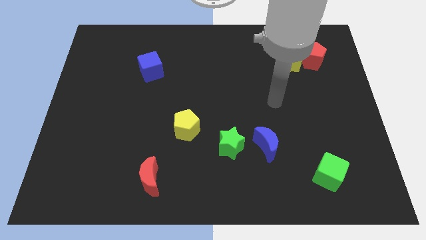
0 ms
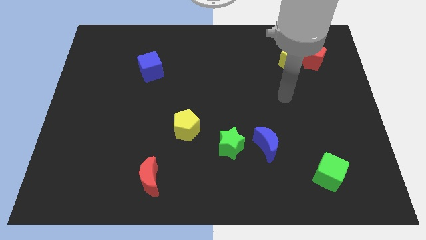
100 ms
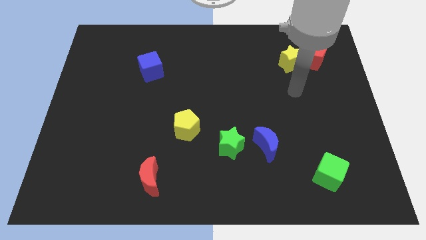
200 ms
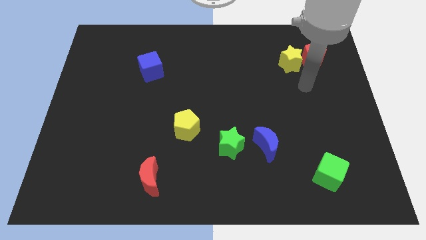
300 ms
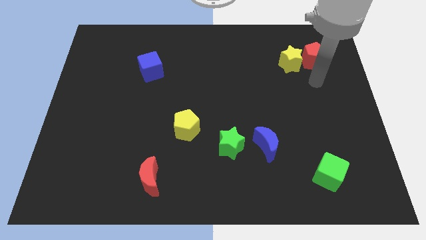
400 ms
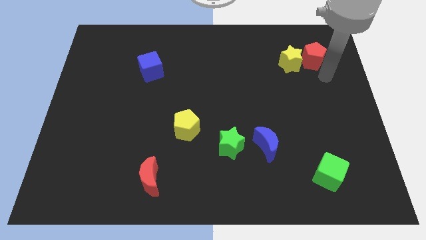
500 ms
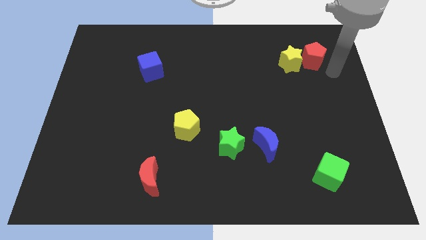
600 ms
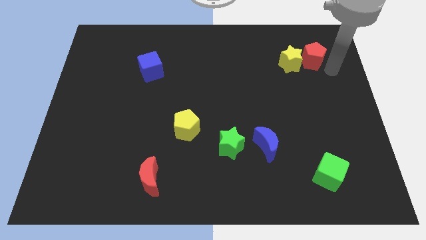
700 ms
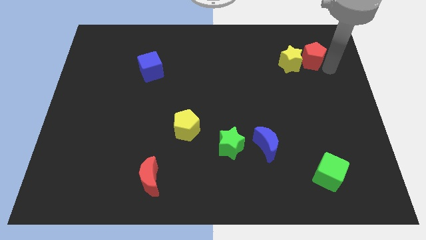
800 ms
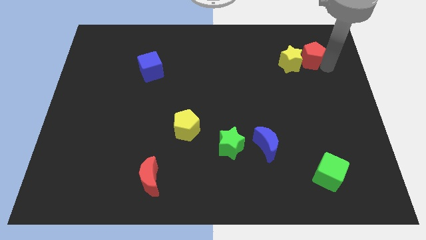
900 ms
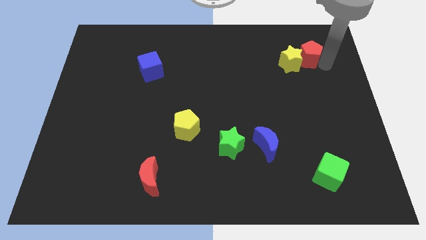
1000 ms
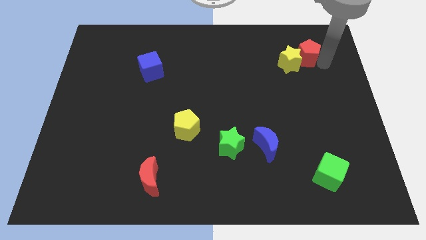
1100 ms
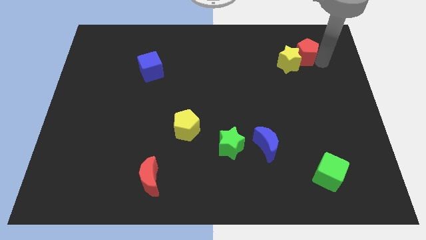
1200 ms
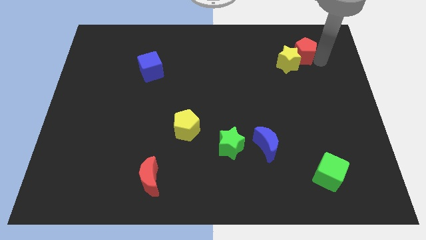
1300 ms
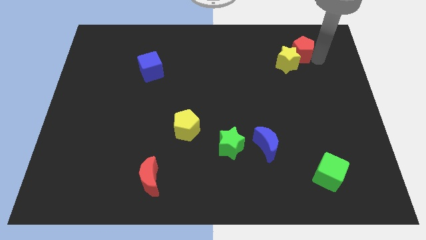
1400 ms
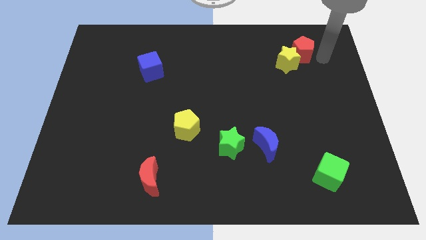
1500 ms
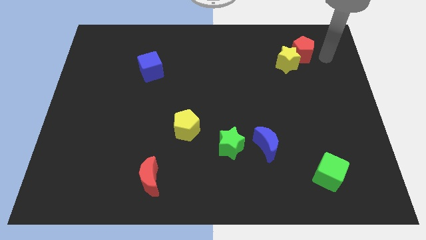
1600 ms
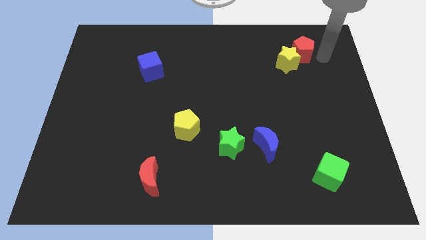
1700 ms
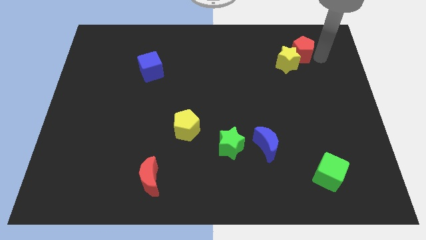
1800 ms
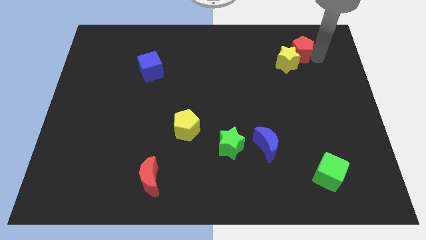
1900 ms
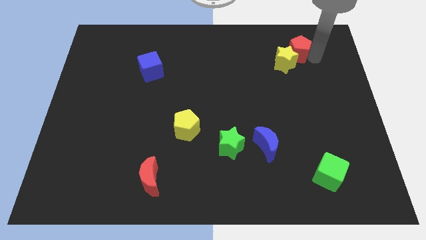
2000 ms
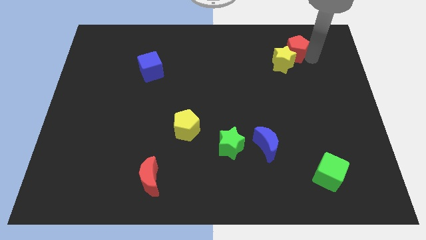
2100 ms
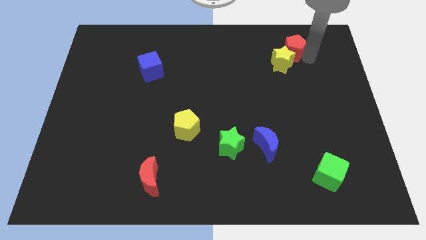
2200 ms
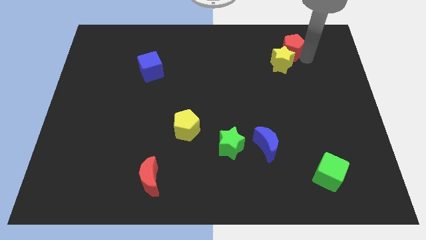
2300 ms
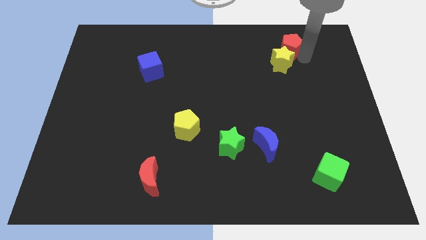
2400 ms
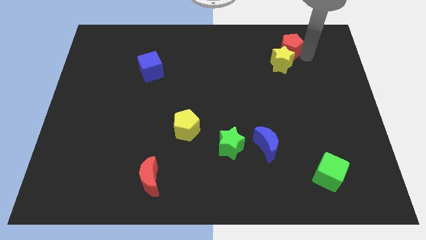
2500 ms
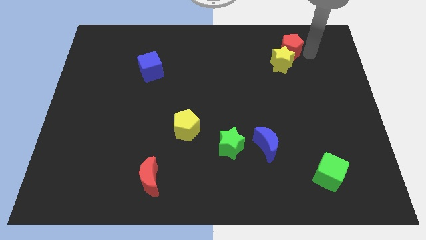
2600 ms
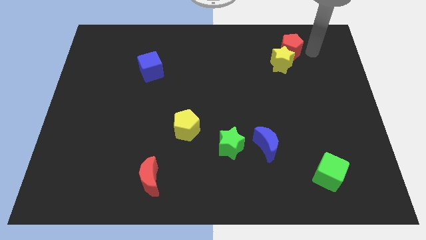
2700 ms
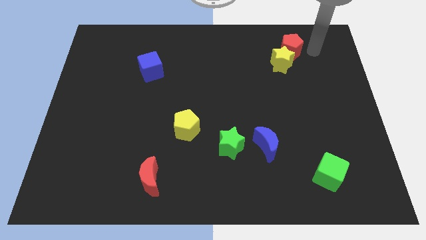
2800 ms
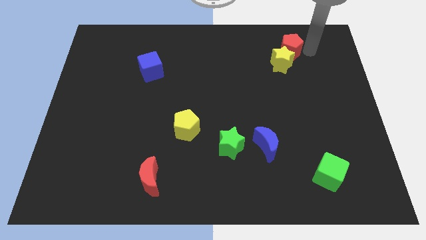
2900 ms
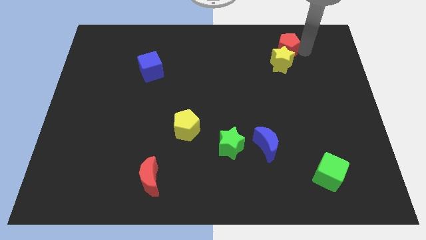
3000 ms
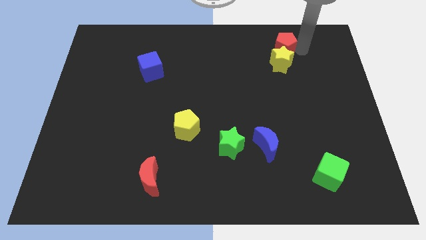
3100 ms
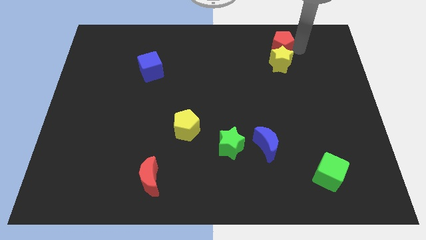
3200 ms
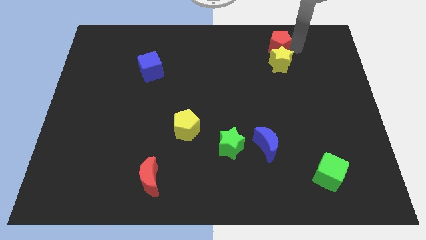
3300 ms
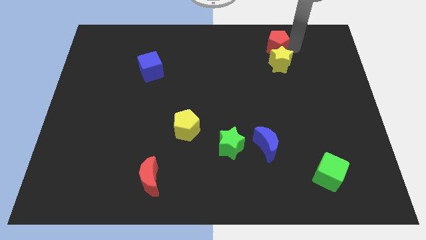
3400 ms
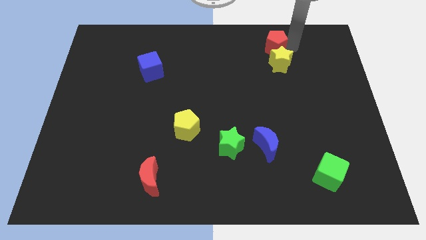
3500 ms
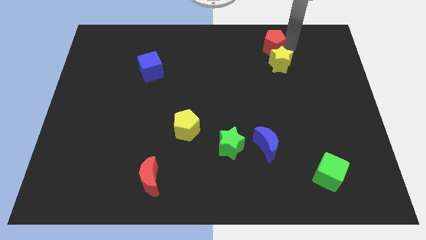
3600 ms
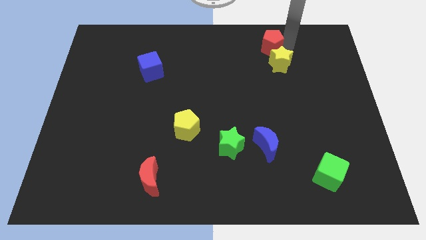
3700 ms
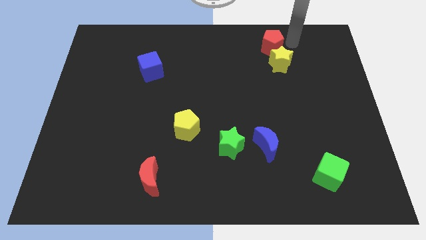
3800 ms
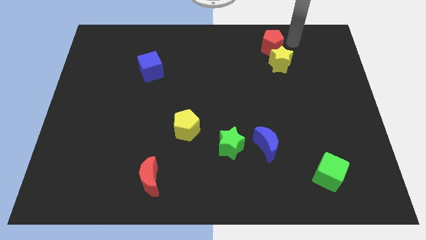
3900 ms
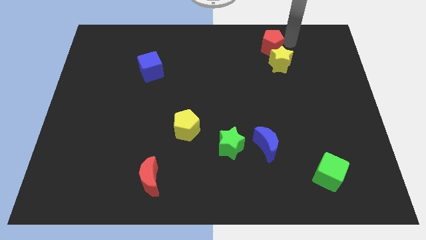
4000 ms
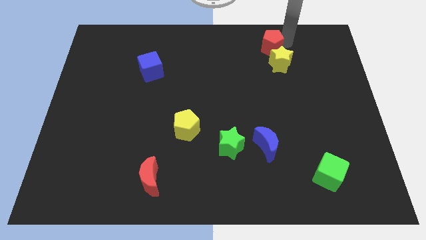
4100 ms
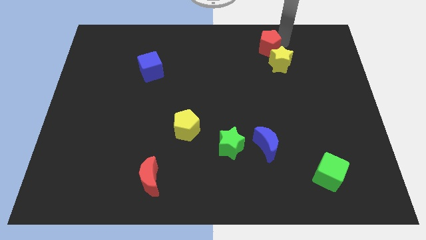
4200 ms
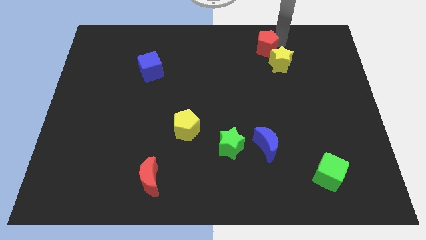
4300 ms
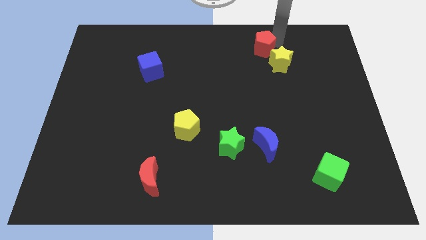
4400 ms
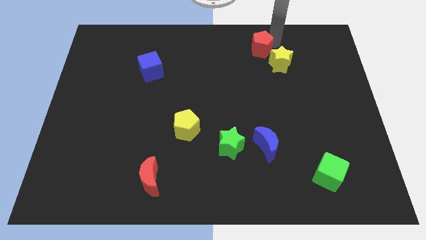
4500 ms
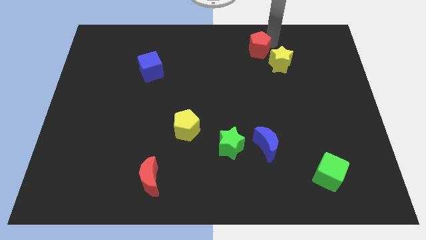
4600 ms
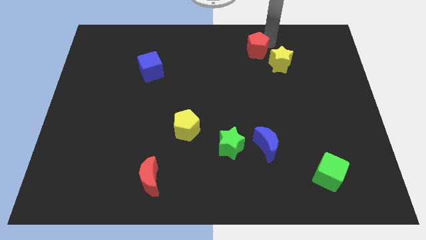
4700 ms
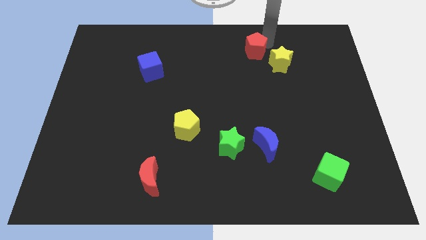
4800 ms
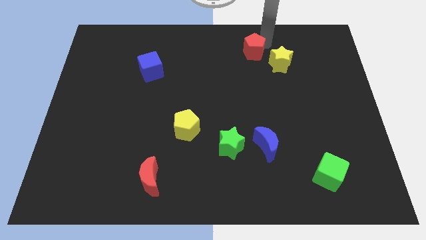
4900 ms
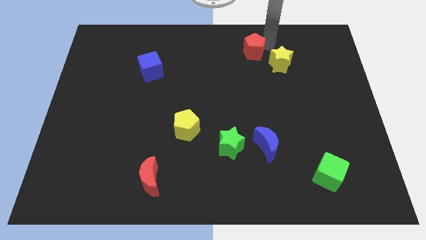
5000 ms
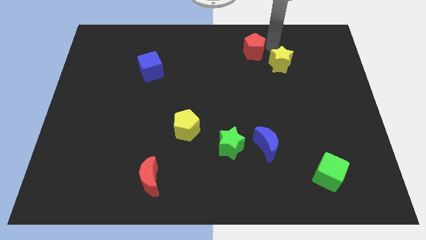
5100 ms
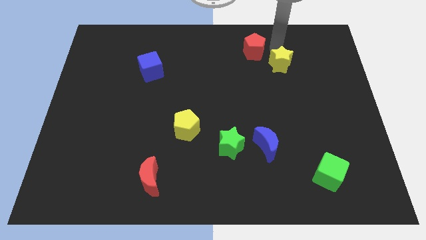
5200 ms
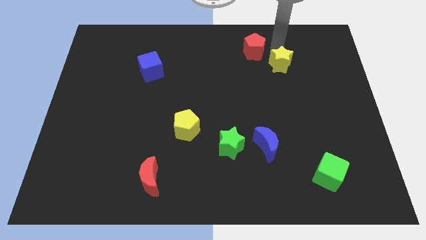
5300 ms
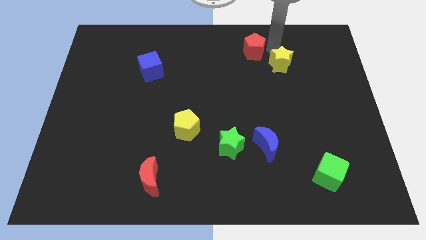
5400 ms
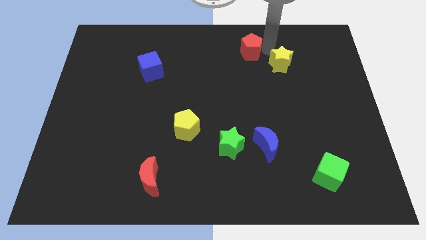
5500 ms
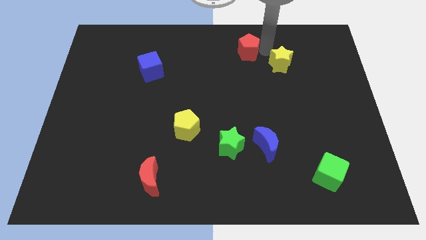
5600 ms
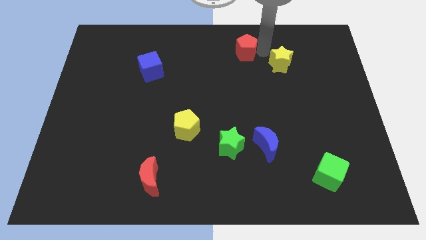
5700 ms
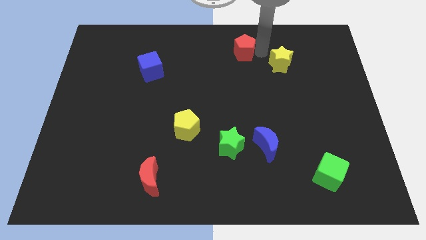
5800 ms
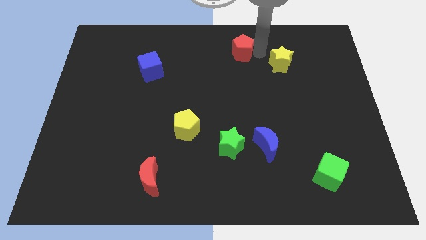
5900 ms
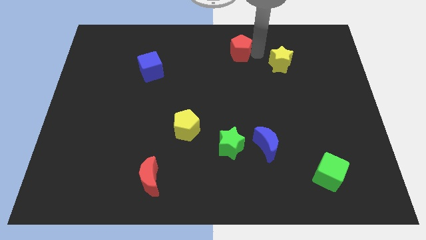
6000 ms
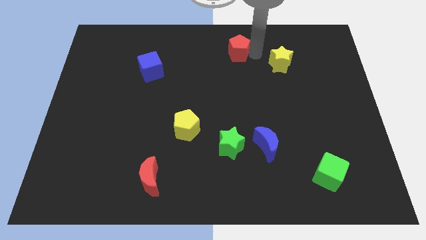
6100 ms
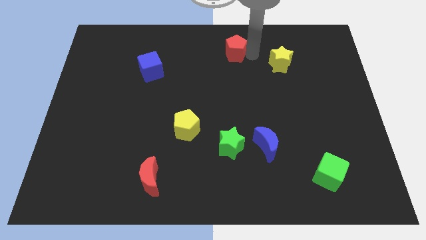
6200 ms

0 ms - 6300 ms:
push the red pentagon left

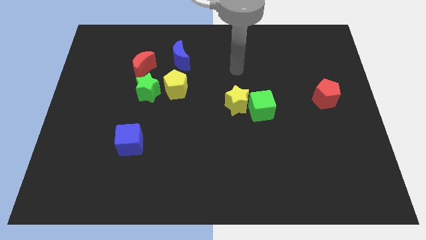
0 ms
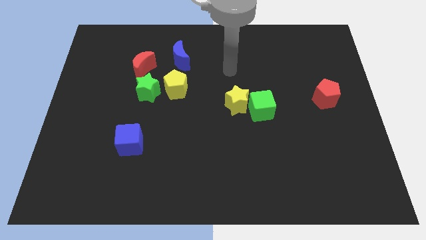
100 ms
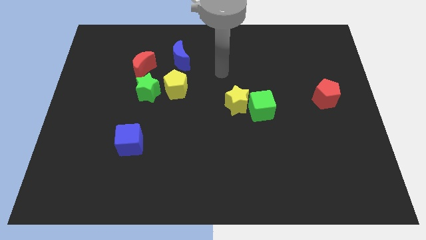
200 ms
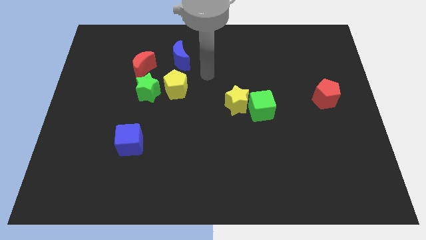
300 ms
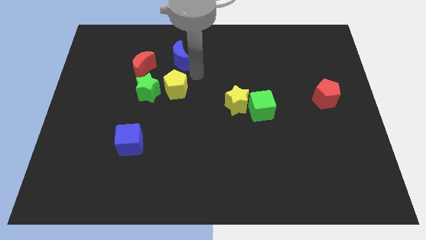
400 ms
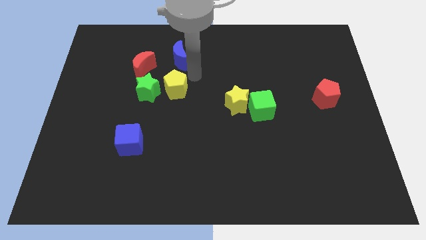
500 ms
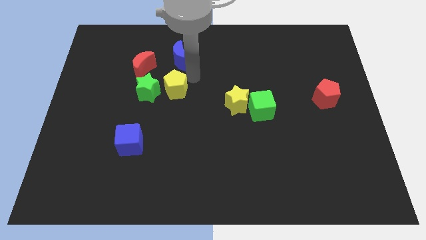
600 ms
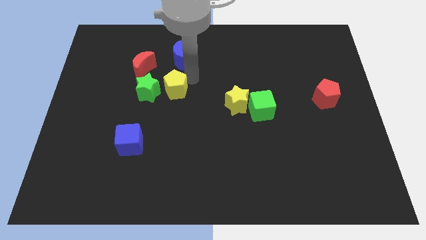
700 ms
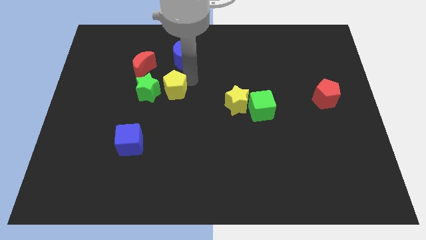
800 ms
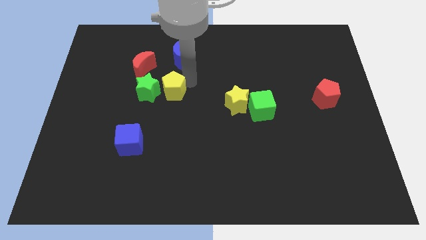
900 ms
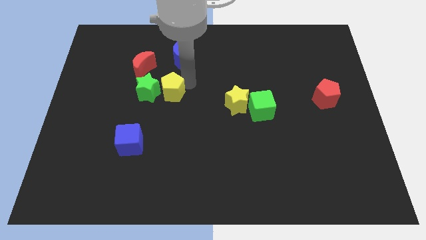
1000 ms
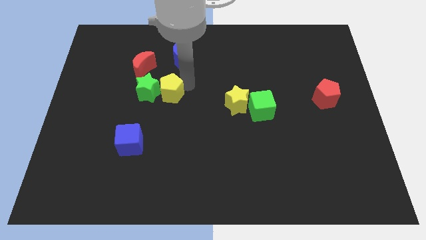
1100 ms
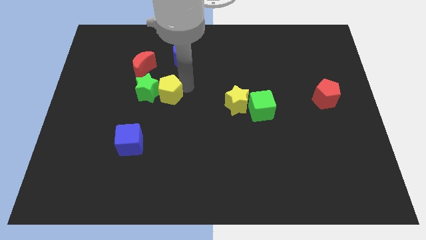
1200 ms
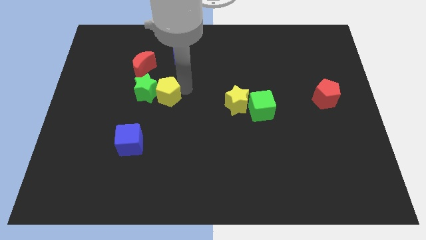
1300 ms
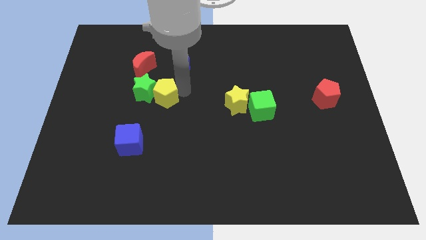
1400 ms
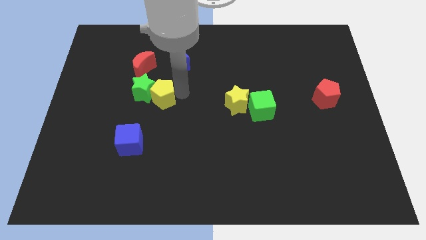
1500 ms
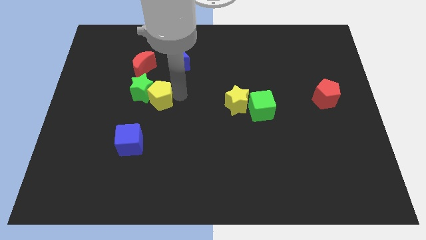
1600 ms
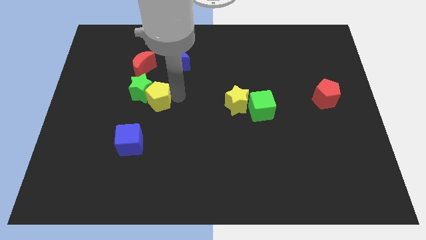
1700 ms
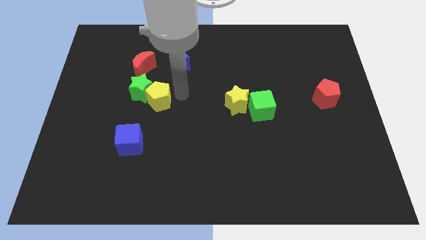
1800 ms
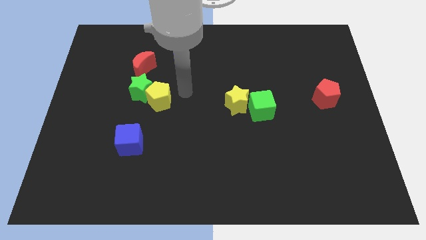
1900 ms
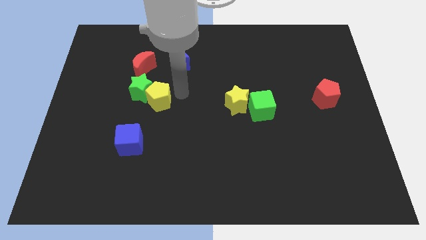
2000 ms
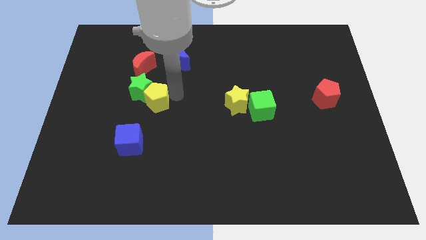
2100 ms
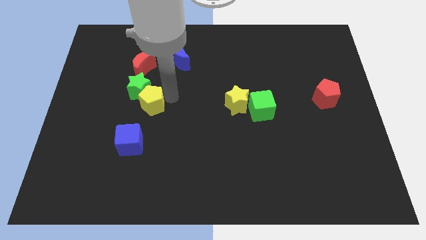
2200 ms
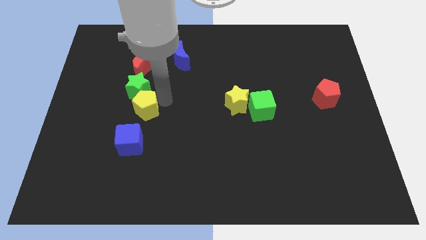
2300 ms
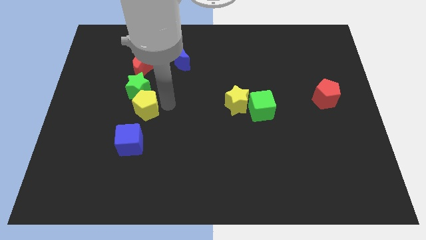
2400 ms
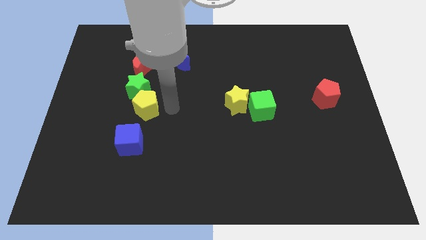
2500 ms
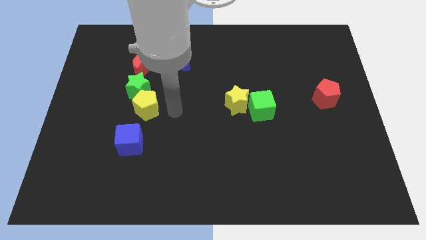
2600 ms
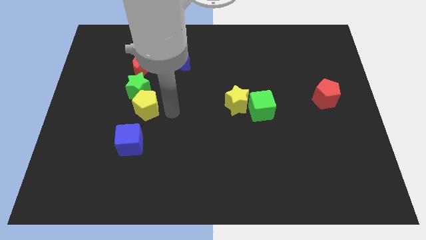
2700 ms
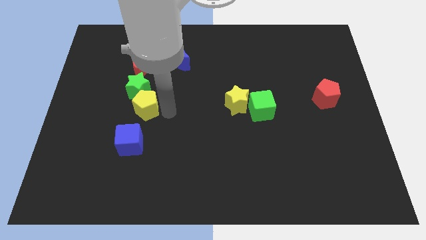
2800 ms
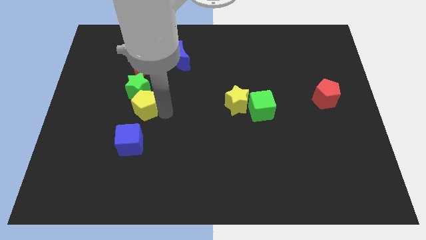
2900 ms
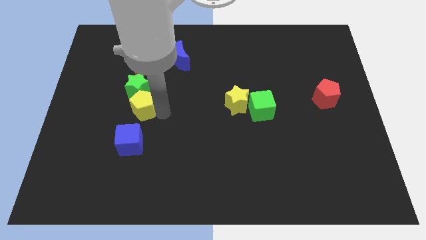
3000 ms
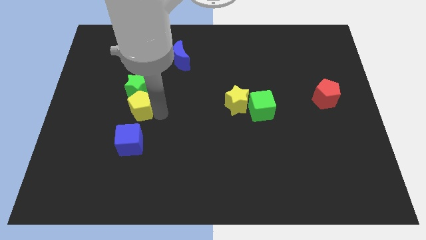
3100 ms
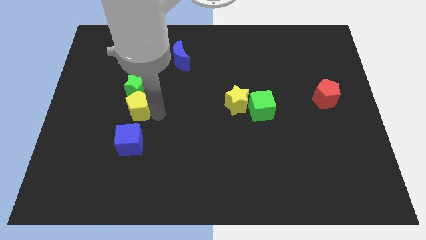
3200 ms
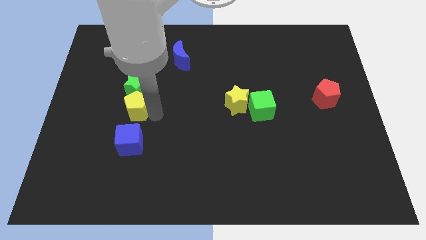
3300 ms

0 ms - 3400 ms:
move the yellow pentagon left a little
